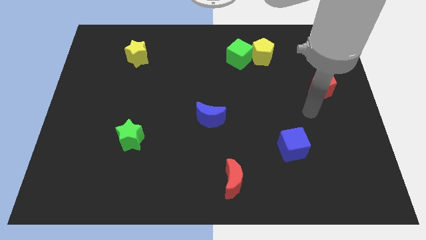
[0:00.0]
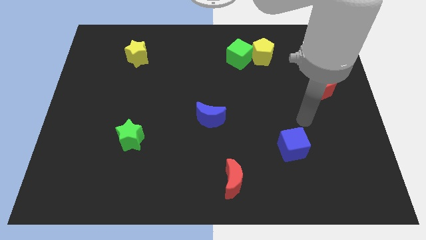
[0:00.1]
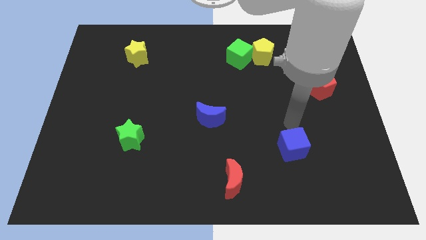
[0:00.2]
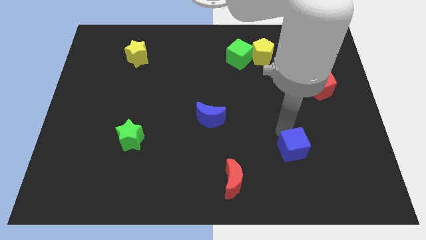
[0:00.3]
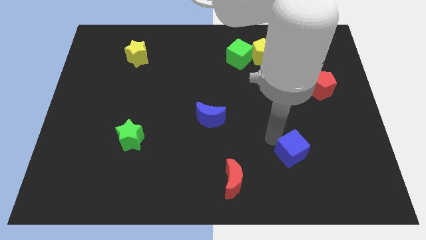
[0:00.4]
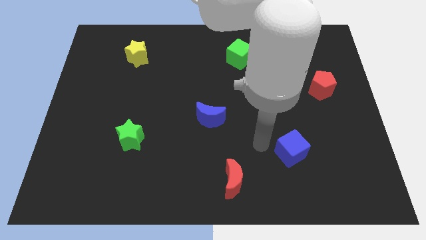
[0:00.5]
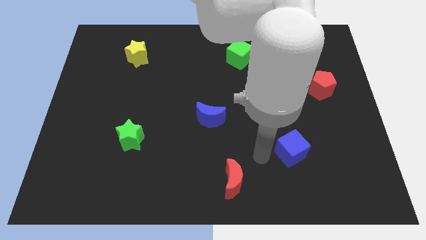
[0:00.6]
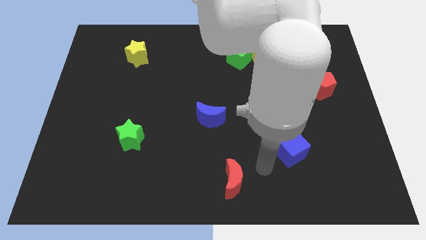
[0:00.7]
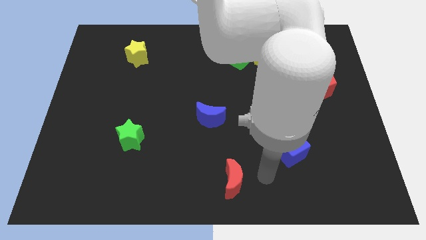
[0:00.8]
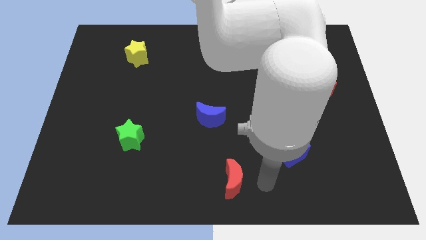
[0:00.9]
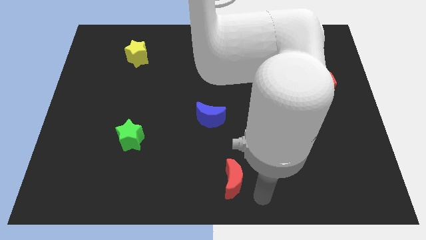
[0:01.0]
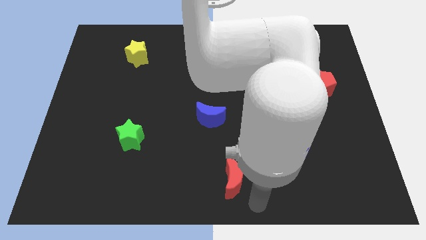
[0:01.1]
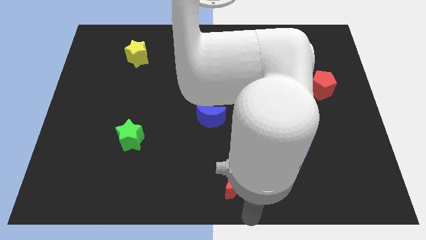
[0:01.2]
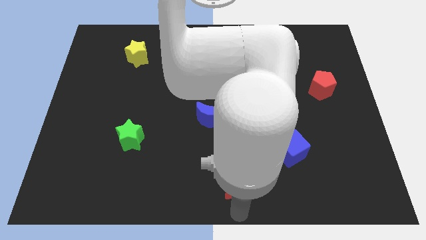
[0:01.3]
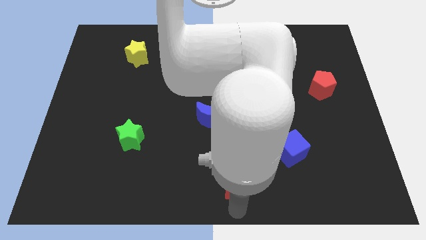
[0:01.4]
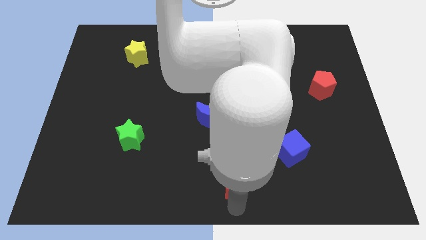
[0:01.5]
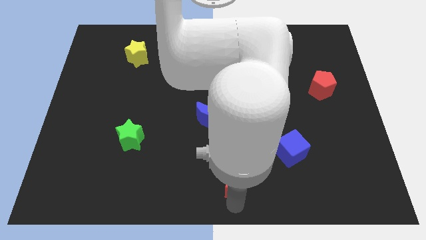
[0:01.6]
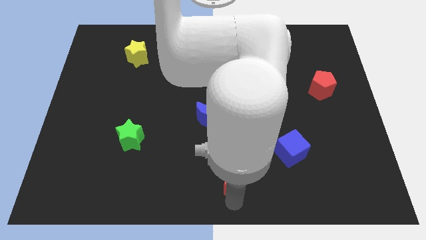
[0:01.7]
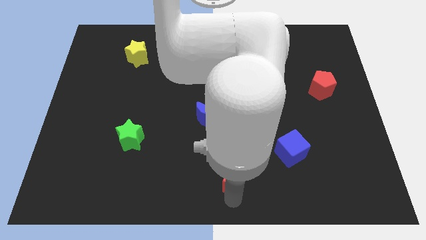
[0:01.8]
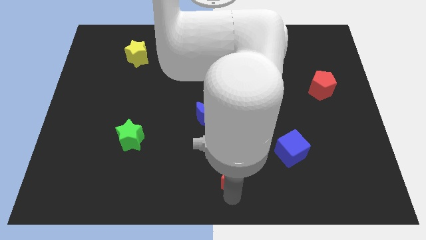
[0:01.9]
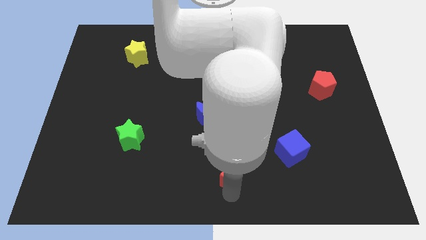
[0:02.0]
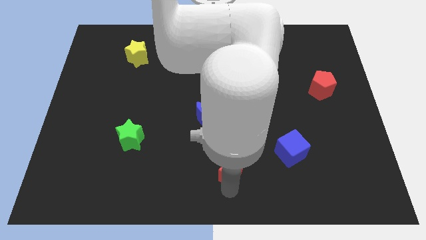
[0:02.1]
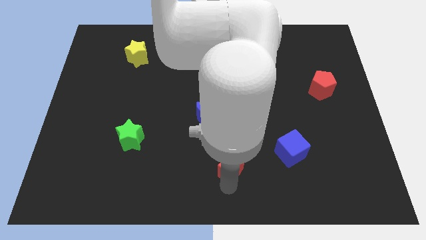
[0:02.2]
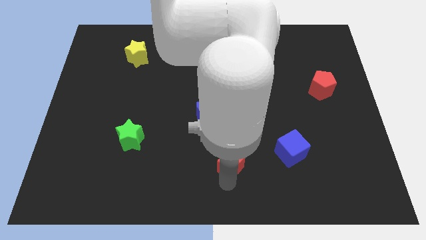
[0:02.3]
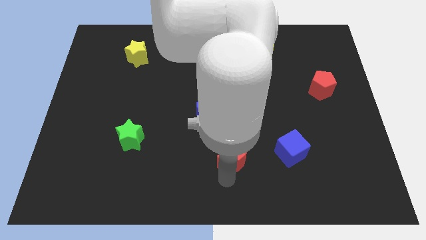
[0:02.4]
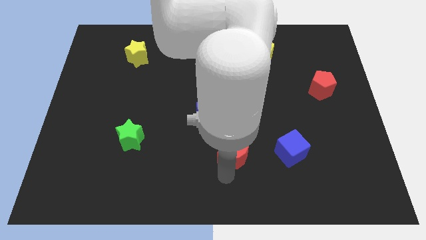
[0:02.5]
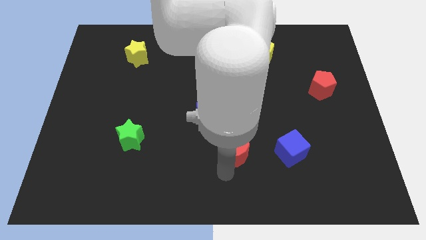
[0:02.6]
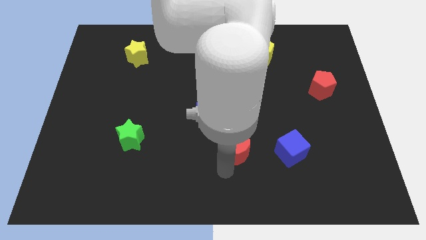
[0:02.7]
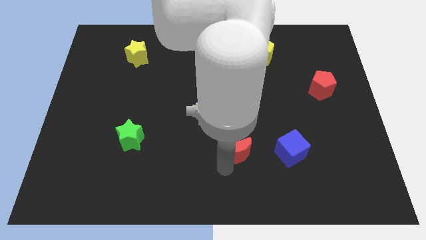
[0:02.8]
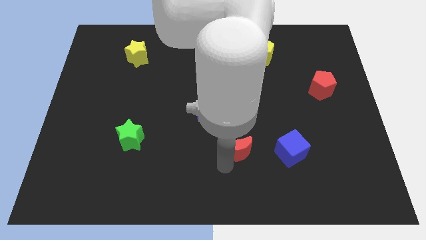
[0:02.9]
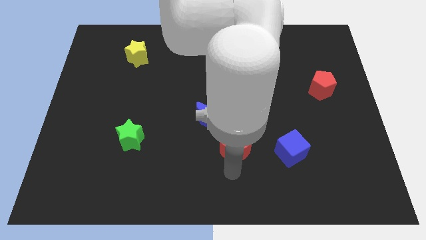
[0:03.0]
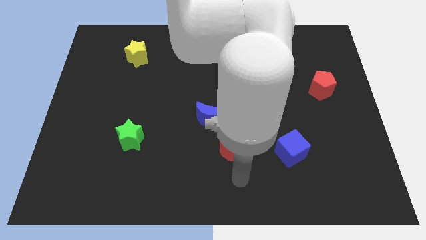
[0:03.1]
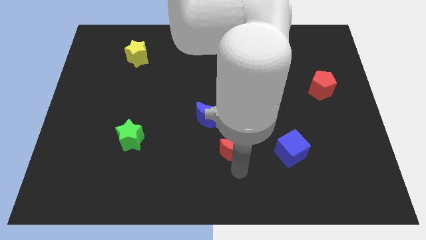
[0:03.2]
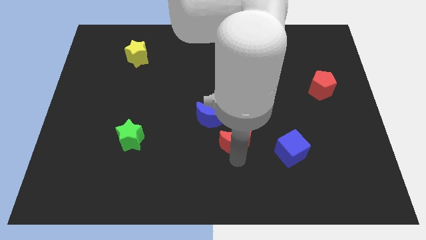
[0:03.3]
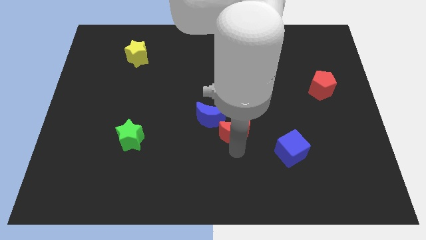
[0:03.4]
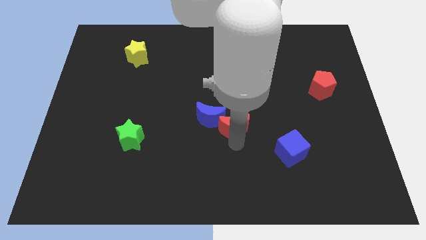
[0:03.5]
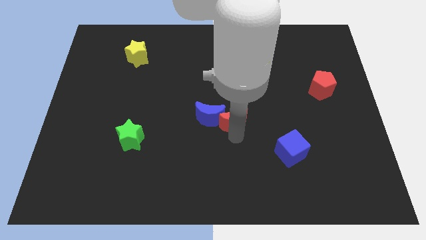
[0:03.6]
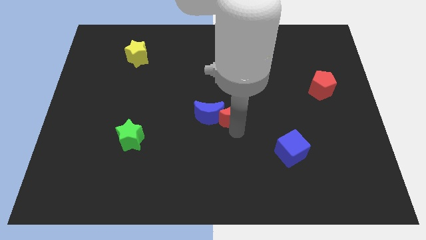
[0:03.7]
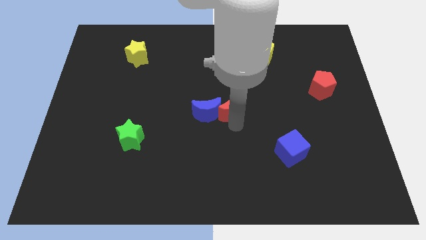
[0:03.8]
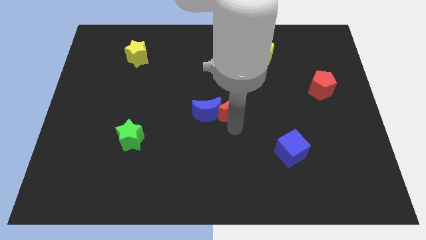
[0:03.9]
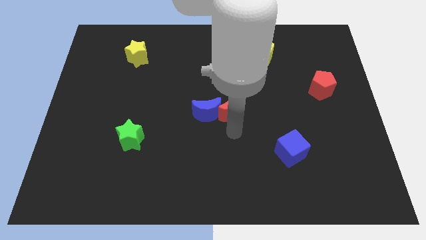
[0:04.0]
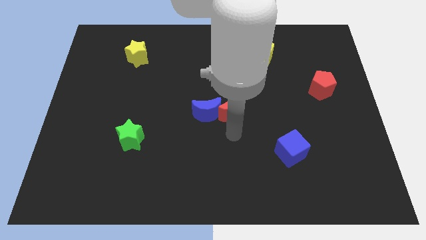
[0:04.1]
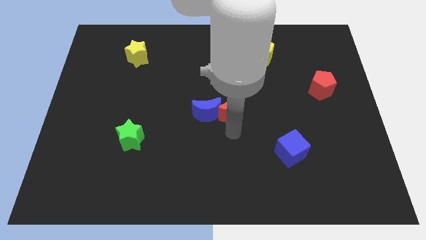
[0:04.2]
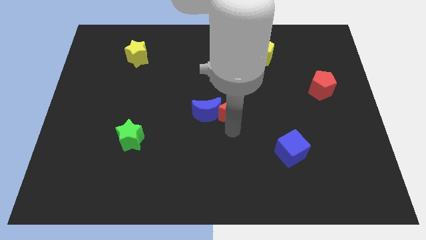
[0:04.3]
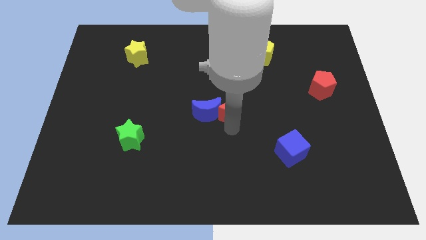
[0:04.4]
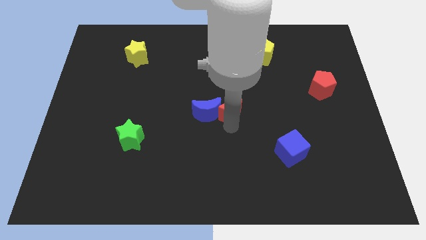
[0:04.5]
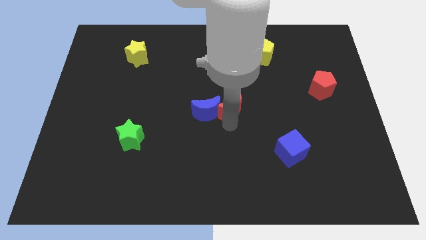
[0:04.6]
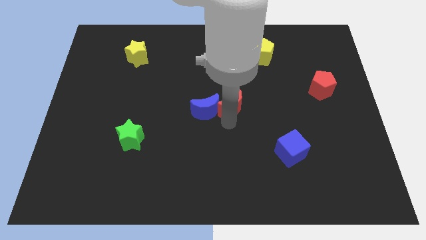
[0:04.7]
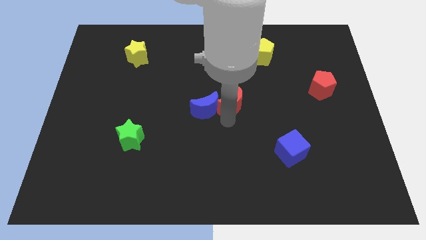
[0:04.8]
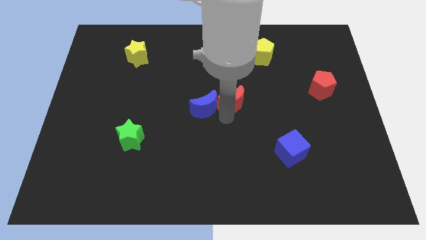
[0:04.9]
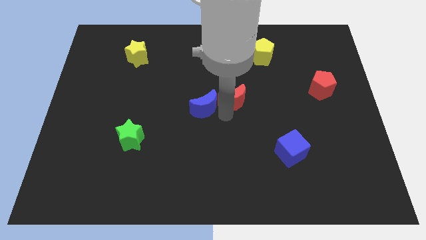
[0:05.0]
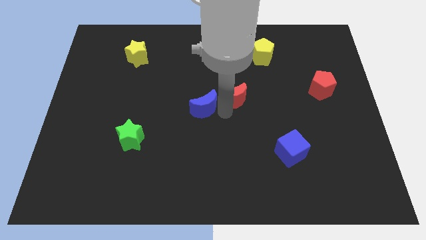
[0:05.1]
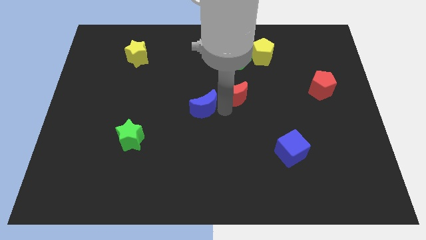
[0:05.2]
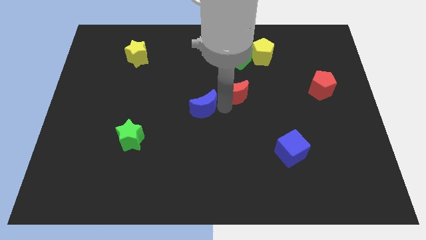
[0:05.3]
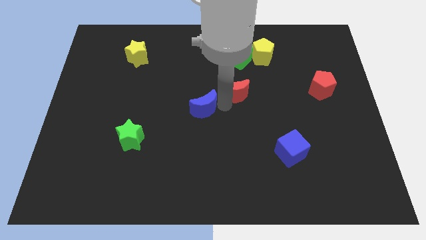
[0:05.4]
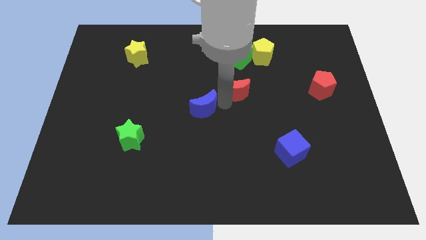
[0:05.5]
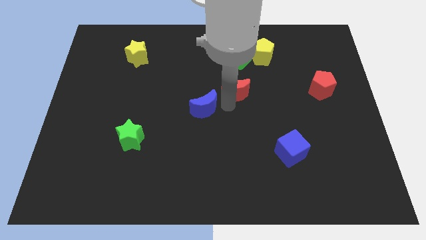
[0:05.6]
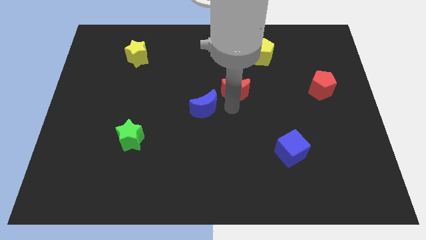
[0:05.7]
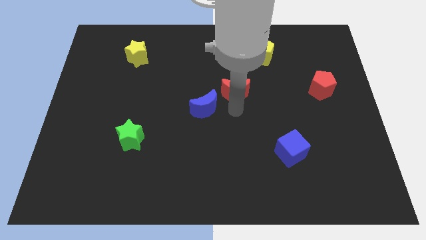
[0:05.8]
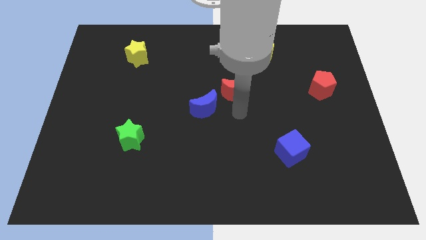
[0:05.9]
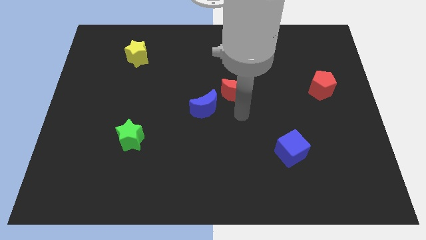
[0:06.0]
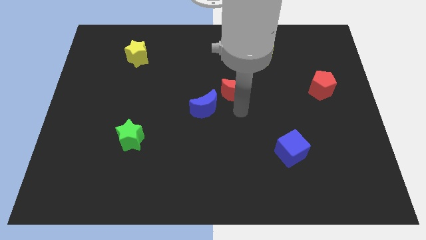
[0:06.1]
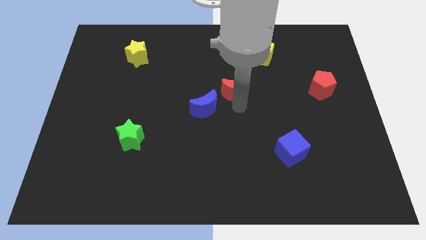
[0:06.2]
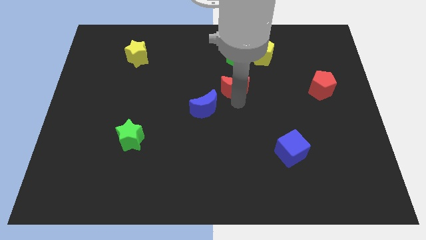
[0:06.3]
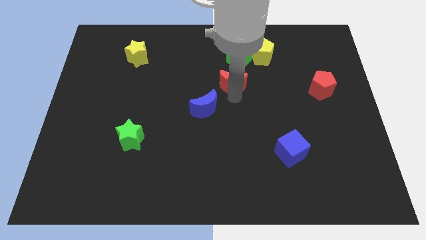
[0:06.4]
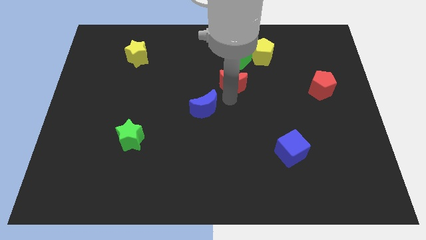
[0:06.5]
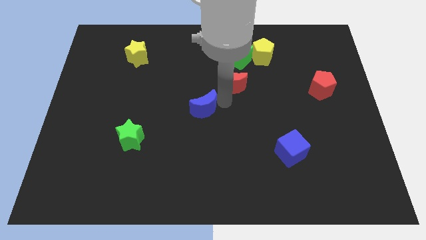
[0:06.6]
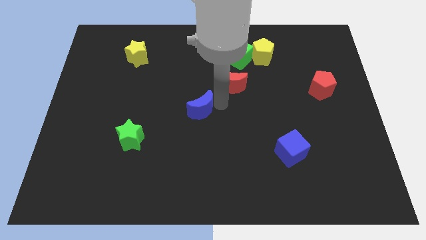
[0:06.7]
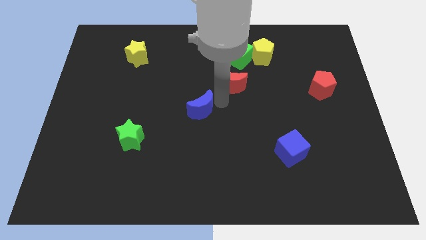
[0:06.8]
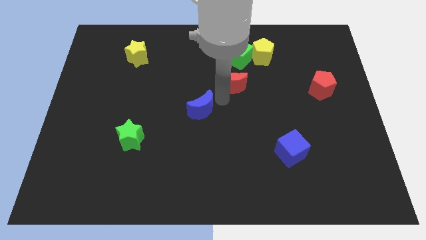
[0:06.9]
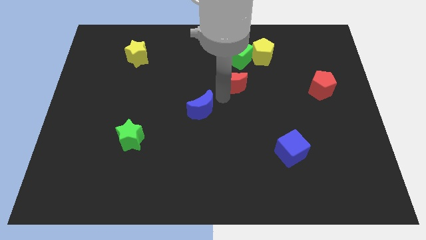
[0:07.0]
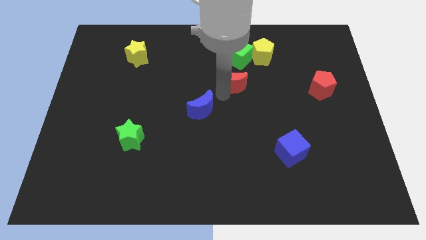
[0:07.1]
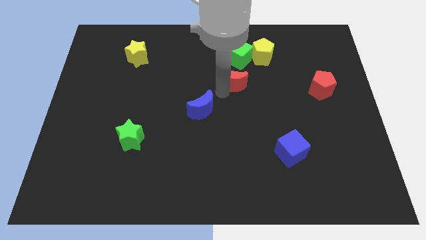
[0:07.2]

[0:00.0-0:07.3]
move the red moon to the bottom left of the yellow pentagon
